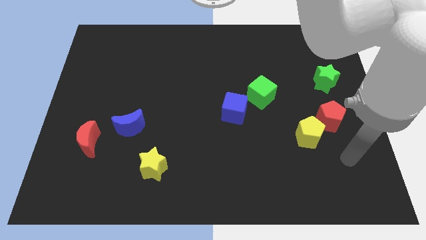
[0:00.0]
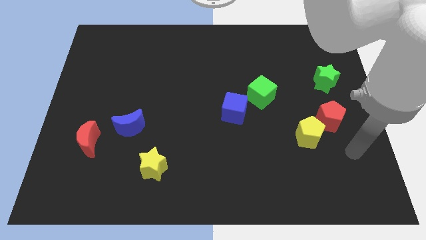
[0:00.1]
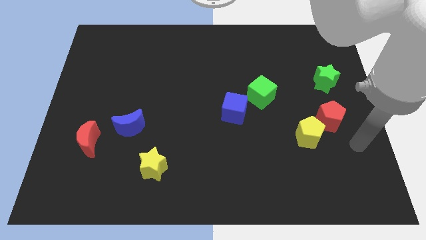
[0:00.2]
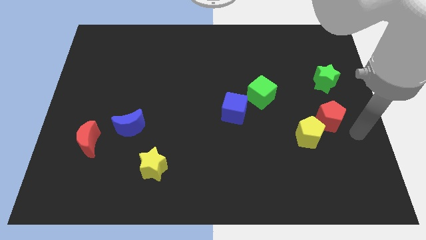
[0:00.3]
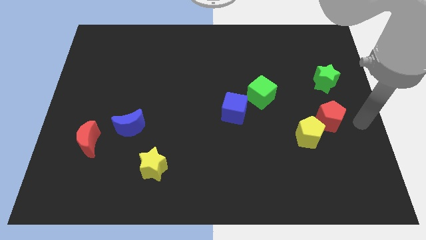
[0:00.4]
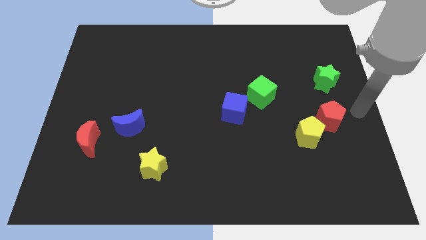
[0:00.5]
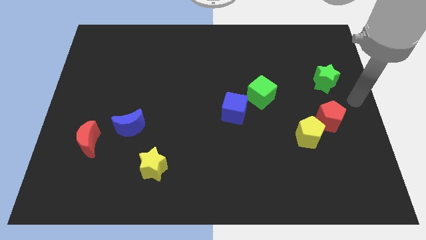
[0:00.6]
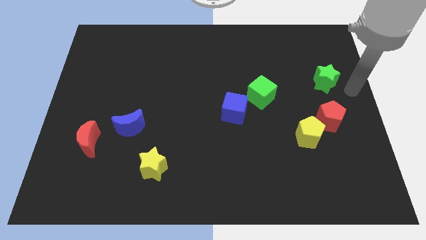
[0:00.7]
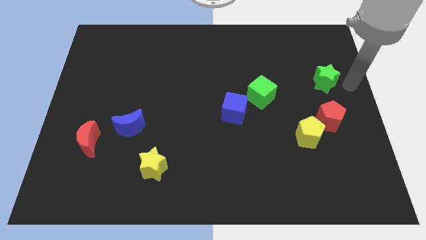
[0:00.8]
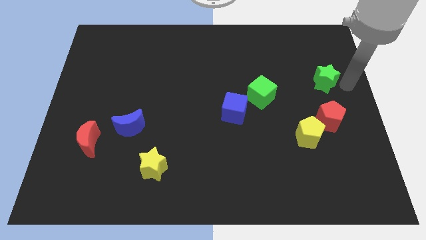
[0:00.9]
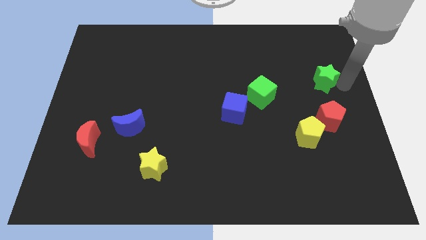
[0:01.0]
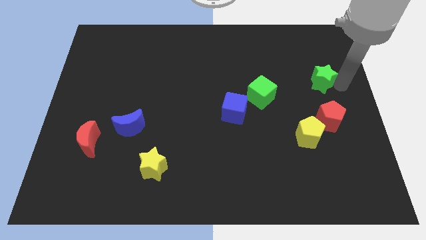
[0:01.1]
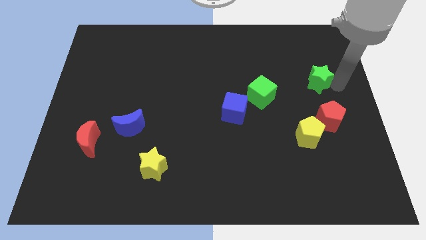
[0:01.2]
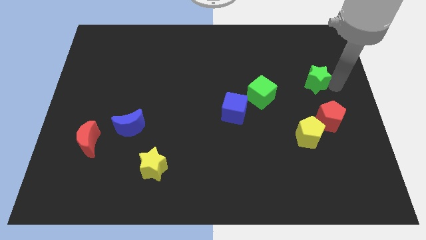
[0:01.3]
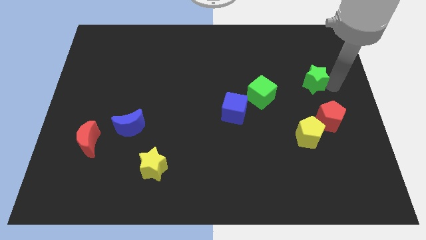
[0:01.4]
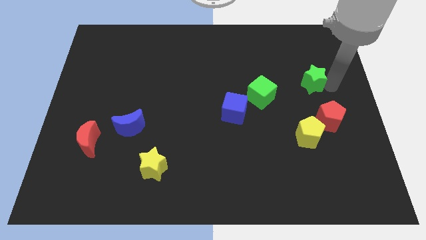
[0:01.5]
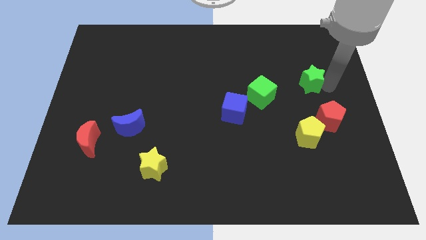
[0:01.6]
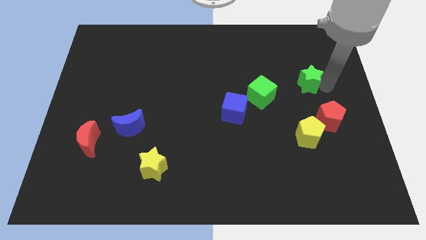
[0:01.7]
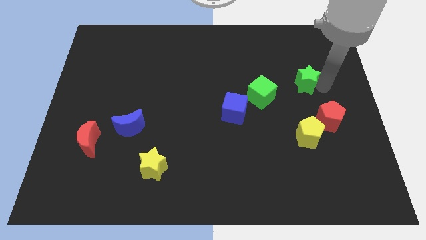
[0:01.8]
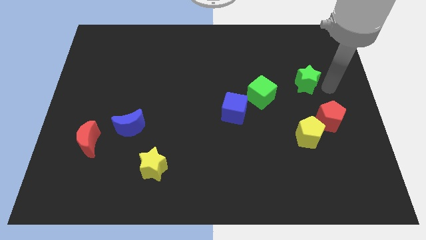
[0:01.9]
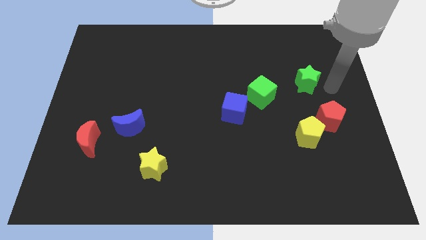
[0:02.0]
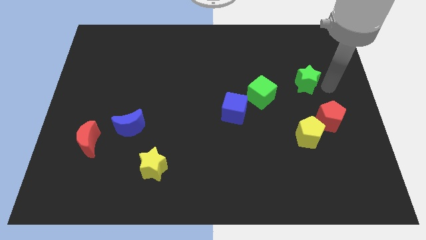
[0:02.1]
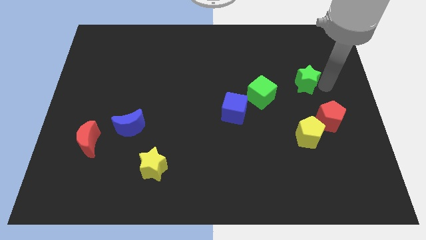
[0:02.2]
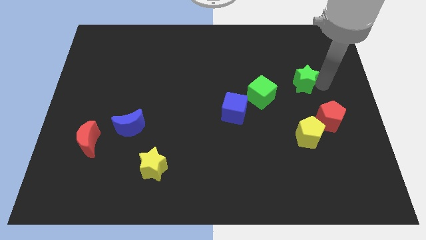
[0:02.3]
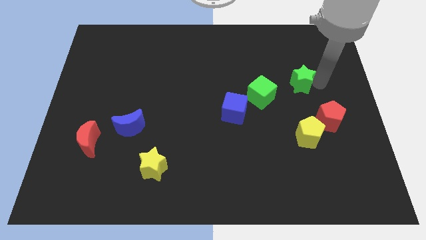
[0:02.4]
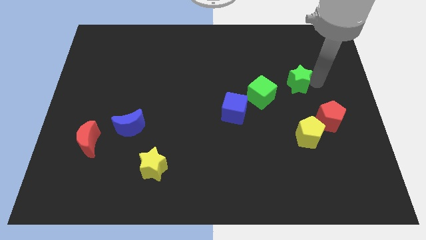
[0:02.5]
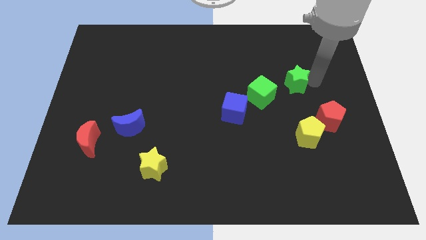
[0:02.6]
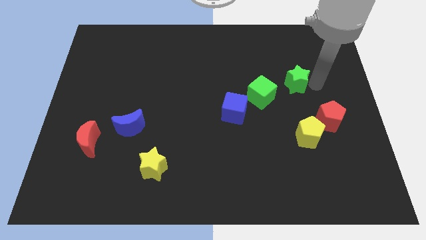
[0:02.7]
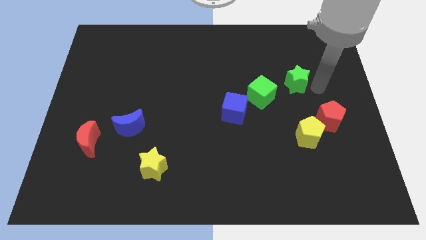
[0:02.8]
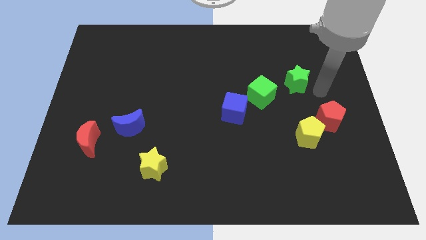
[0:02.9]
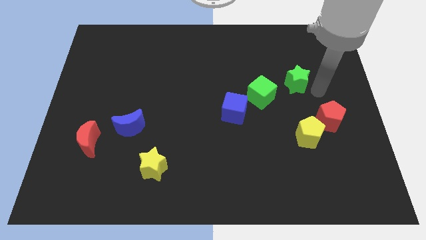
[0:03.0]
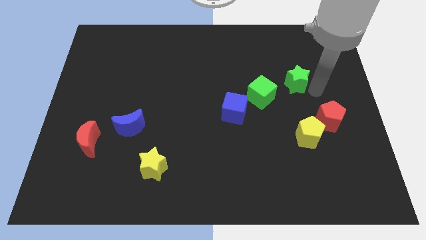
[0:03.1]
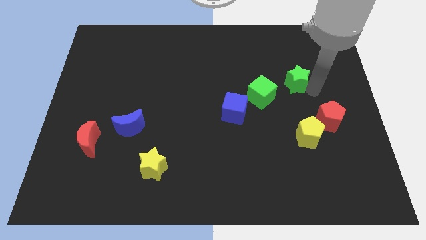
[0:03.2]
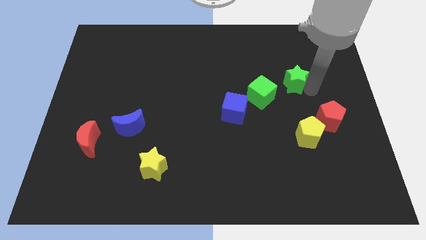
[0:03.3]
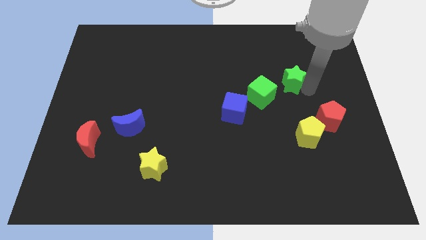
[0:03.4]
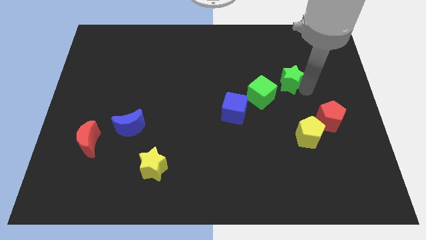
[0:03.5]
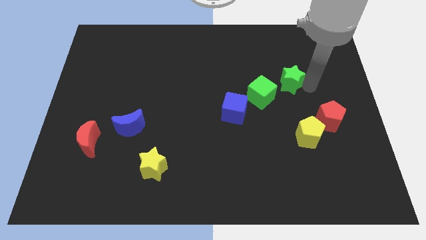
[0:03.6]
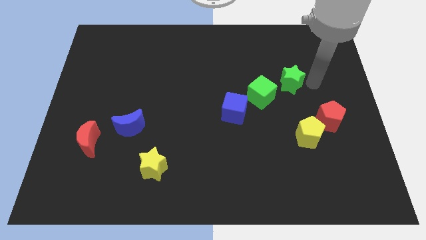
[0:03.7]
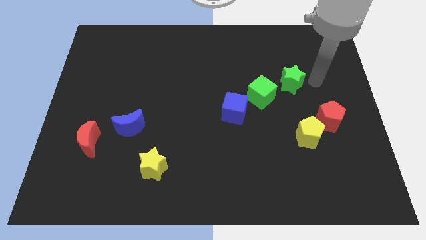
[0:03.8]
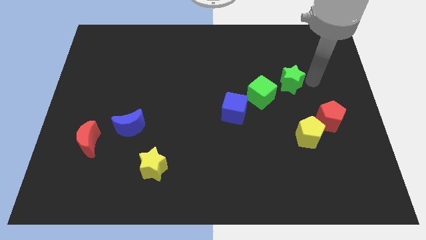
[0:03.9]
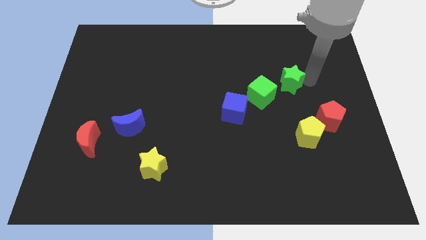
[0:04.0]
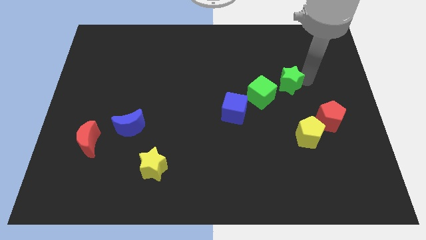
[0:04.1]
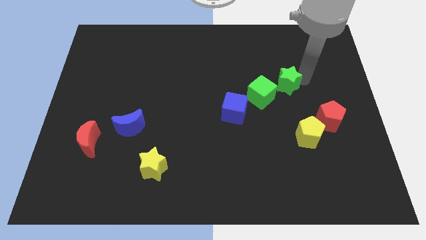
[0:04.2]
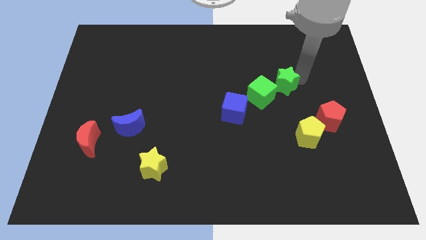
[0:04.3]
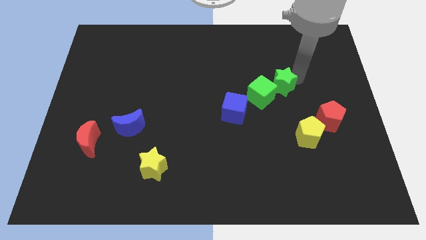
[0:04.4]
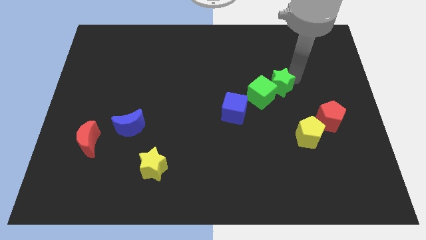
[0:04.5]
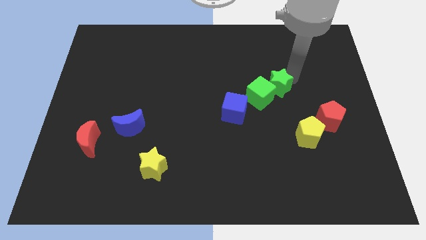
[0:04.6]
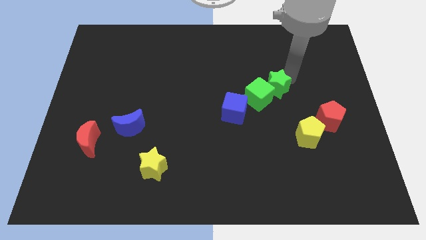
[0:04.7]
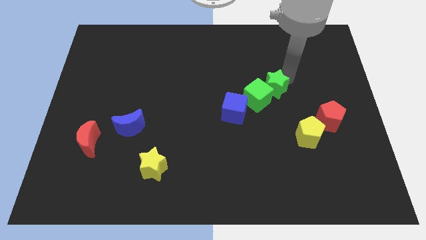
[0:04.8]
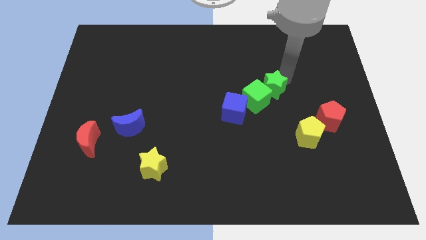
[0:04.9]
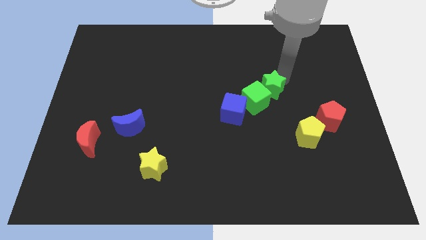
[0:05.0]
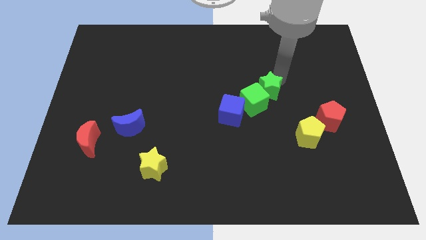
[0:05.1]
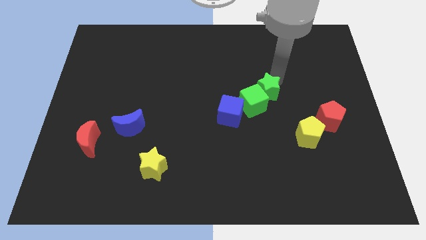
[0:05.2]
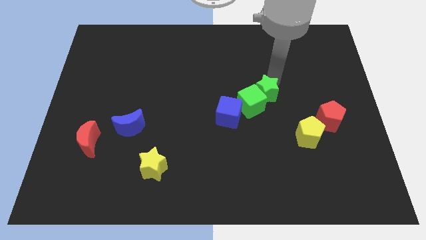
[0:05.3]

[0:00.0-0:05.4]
put the green star to the center of the board

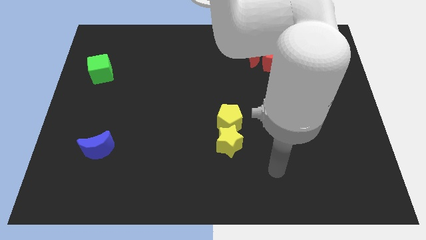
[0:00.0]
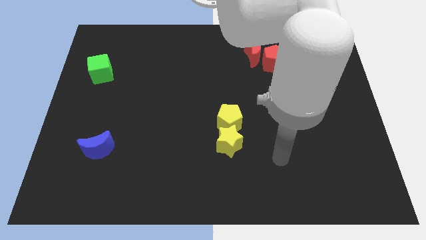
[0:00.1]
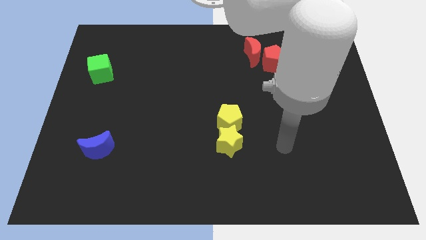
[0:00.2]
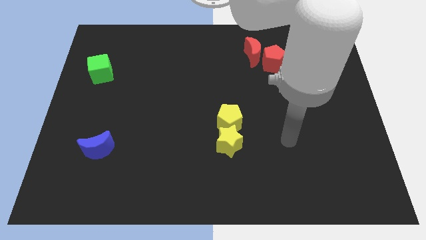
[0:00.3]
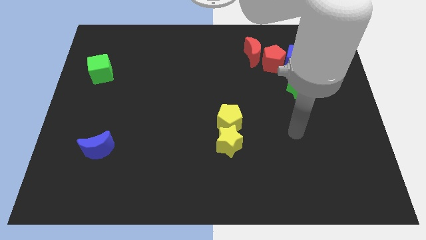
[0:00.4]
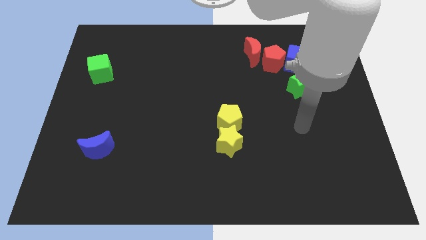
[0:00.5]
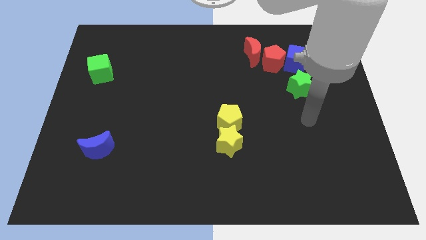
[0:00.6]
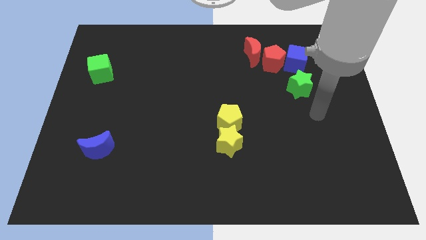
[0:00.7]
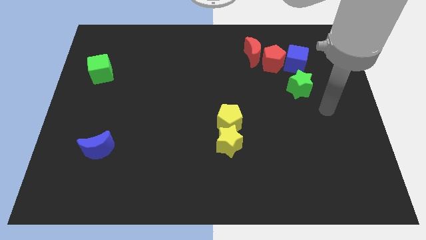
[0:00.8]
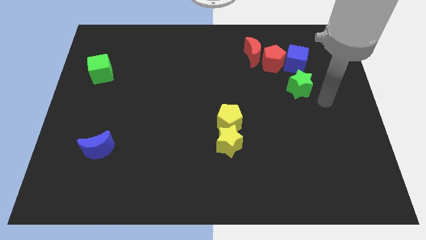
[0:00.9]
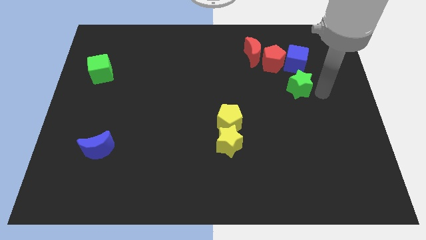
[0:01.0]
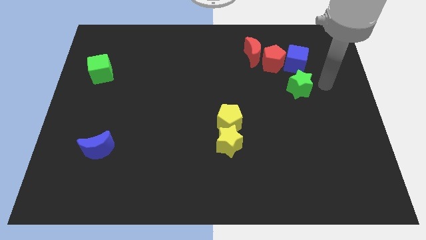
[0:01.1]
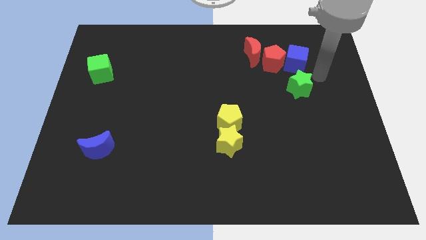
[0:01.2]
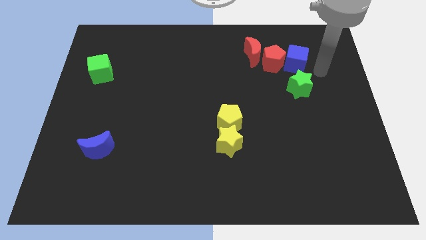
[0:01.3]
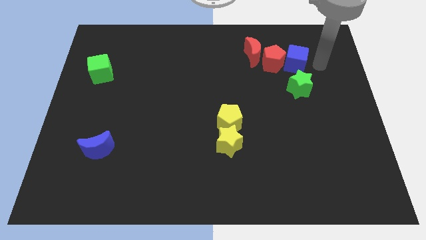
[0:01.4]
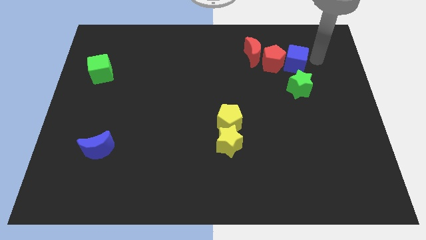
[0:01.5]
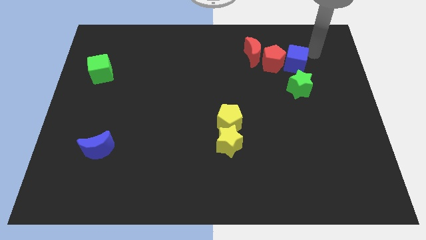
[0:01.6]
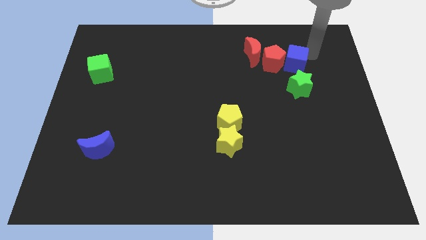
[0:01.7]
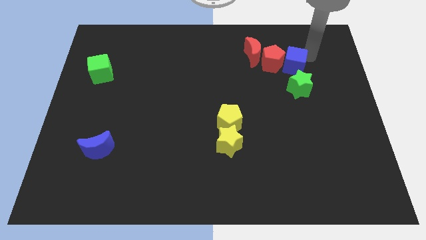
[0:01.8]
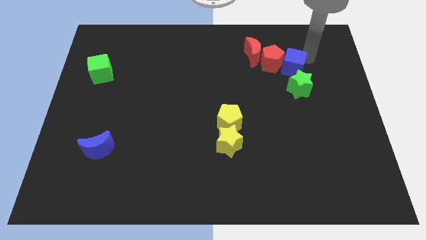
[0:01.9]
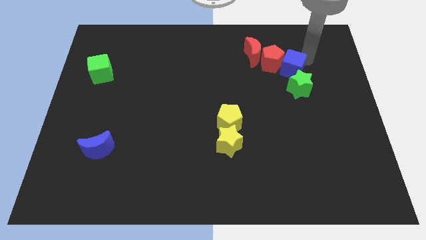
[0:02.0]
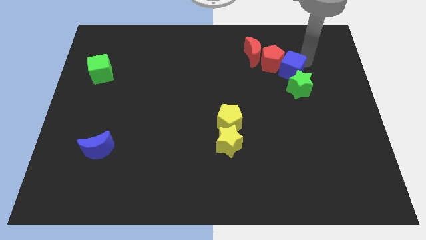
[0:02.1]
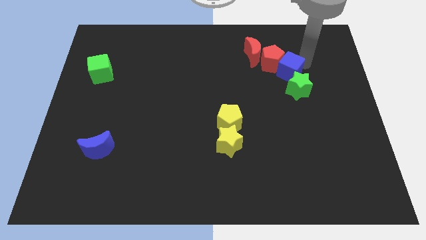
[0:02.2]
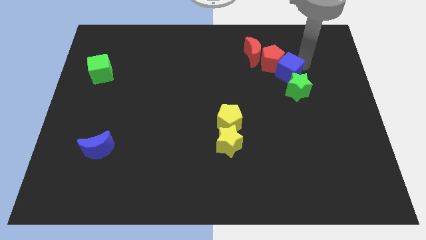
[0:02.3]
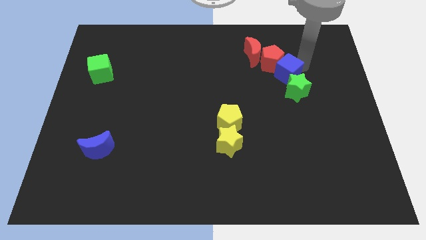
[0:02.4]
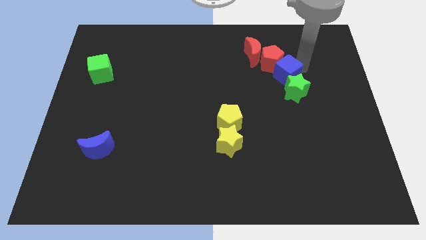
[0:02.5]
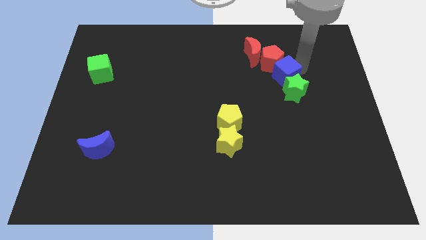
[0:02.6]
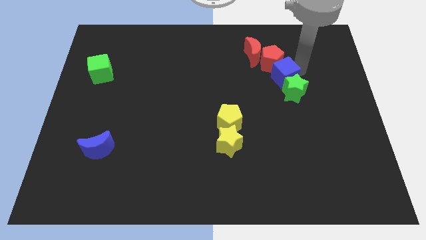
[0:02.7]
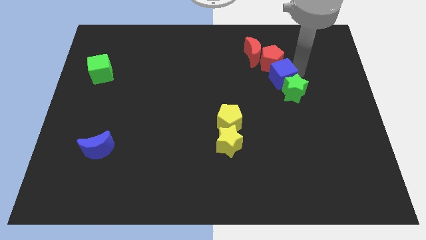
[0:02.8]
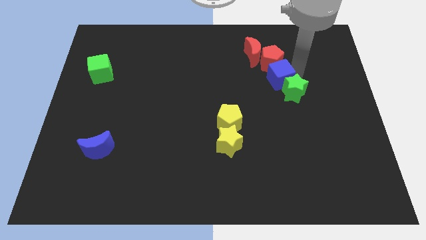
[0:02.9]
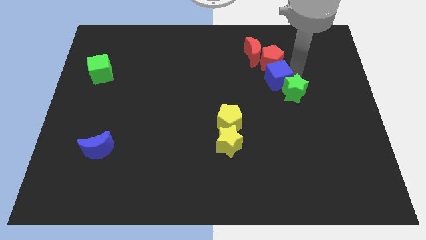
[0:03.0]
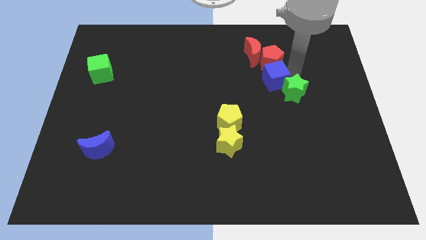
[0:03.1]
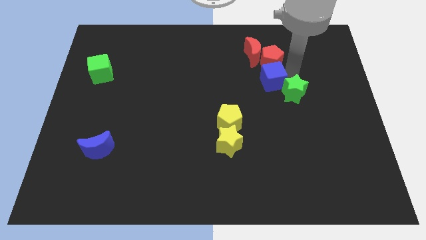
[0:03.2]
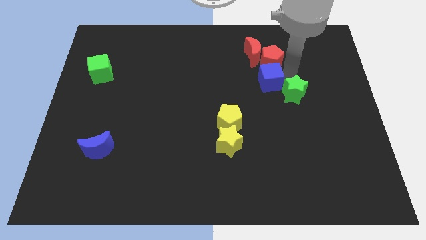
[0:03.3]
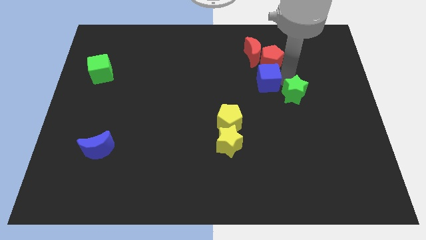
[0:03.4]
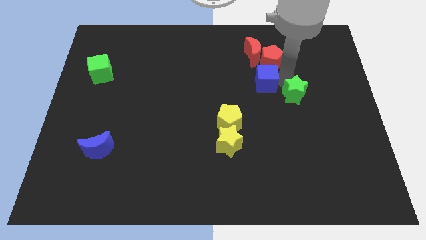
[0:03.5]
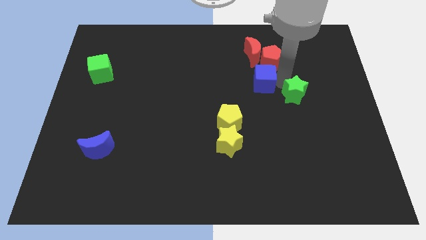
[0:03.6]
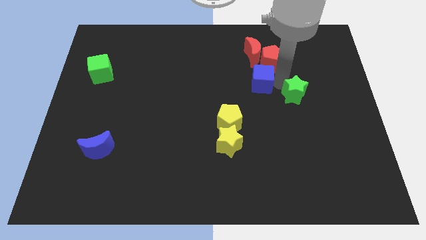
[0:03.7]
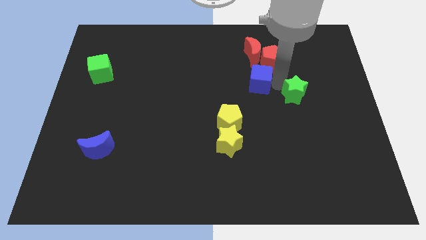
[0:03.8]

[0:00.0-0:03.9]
put the blue cube to the center of the board
